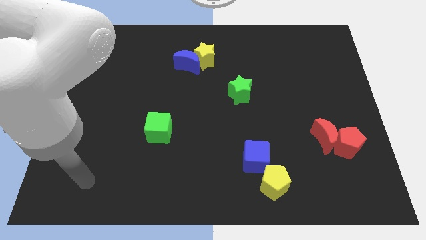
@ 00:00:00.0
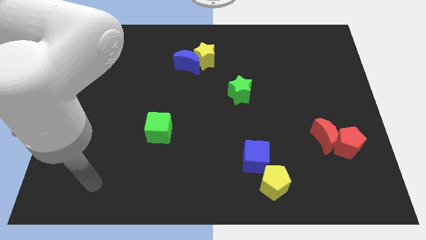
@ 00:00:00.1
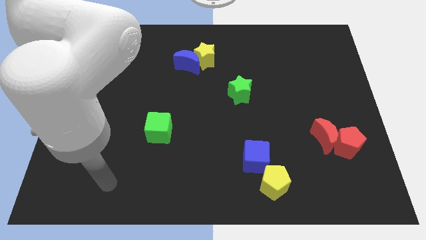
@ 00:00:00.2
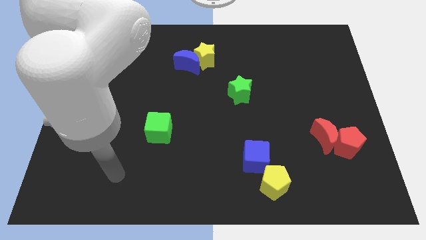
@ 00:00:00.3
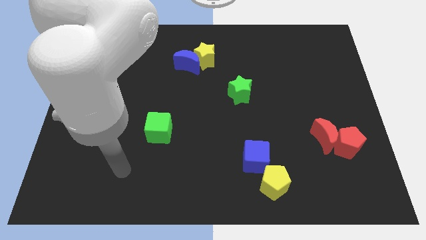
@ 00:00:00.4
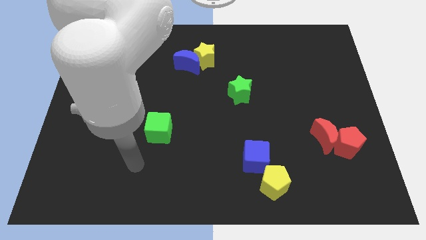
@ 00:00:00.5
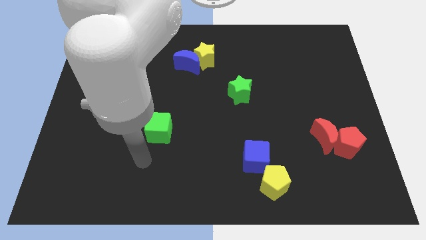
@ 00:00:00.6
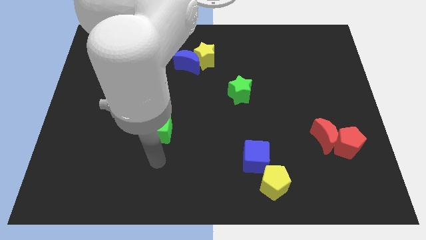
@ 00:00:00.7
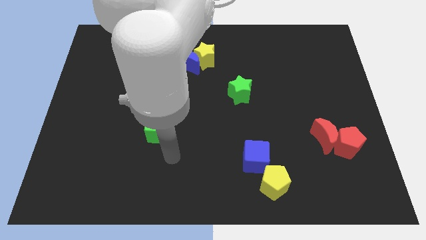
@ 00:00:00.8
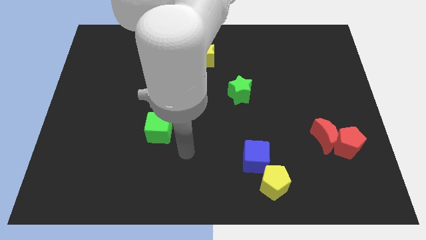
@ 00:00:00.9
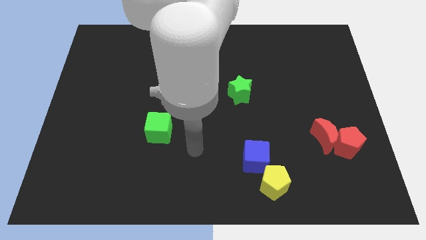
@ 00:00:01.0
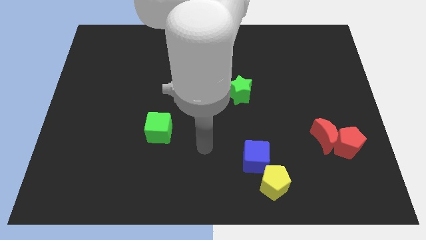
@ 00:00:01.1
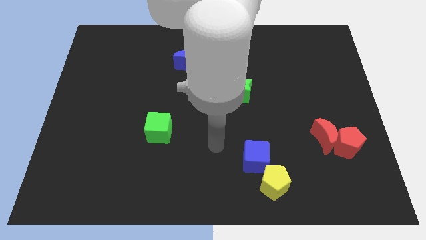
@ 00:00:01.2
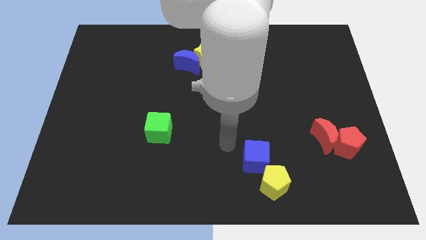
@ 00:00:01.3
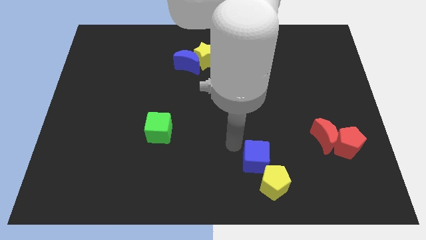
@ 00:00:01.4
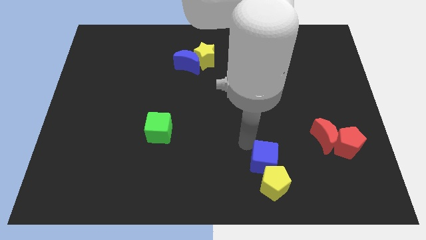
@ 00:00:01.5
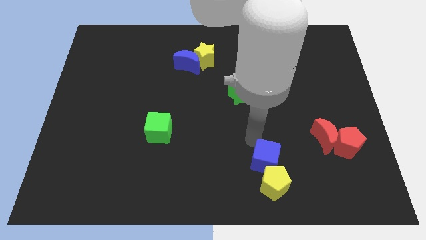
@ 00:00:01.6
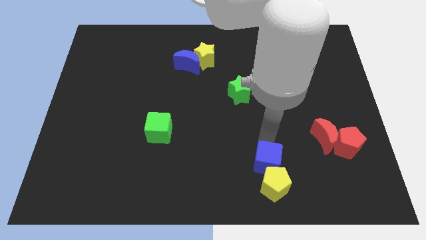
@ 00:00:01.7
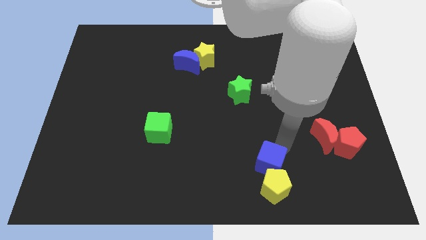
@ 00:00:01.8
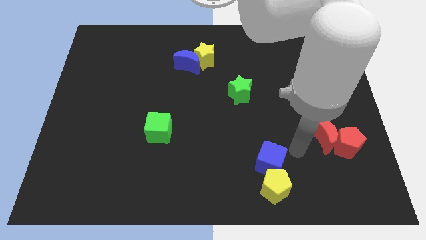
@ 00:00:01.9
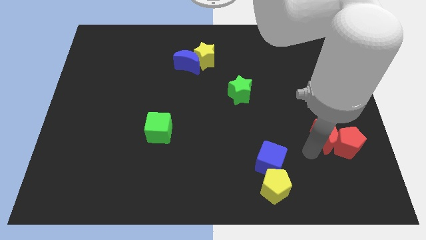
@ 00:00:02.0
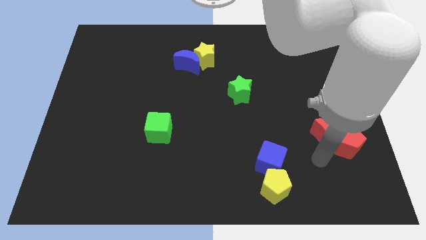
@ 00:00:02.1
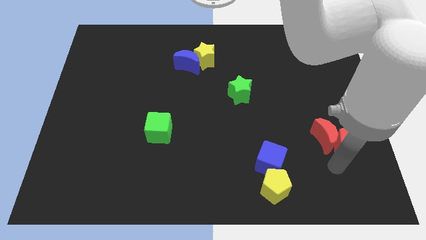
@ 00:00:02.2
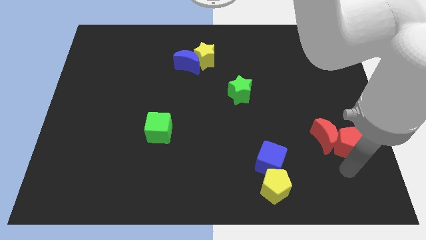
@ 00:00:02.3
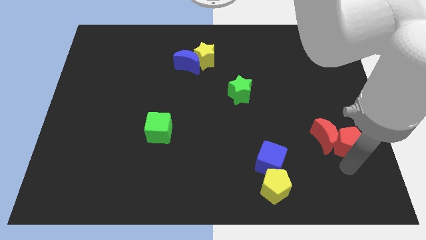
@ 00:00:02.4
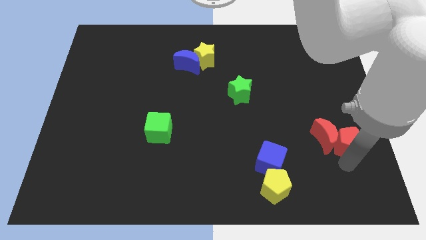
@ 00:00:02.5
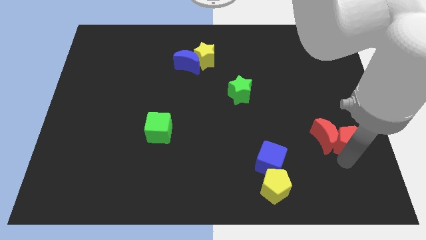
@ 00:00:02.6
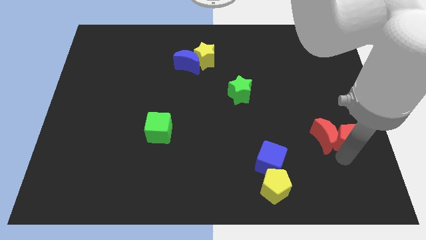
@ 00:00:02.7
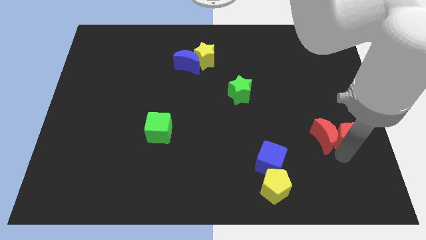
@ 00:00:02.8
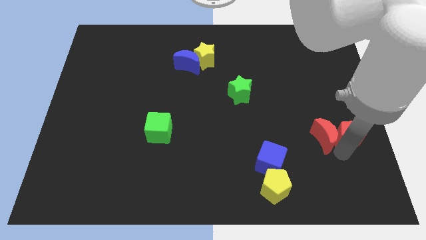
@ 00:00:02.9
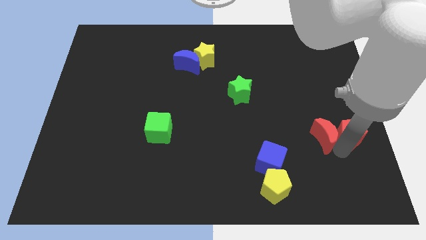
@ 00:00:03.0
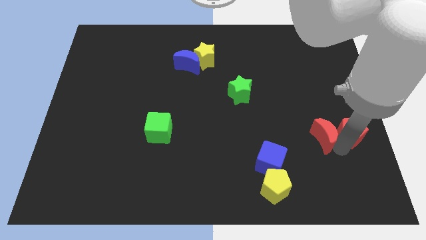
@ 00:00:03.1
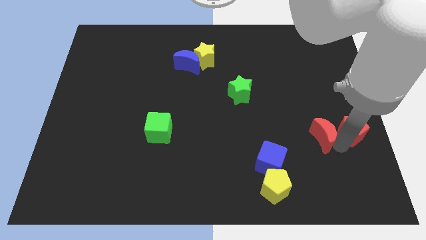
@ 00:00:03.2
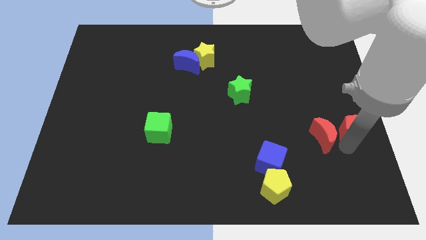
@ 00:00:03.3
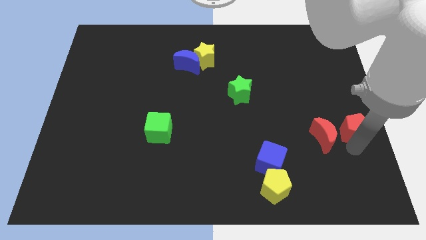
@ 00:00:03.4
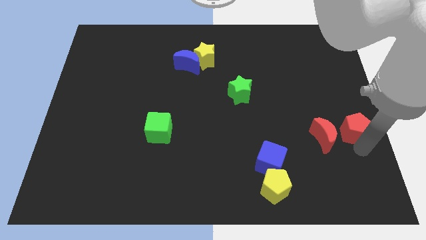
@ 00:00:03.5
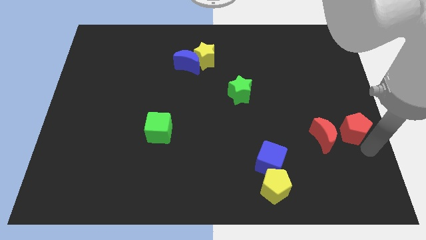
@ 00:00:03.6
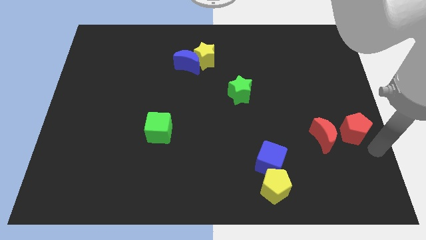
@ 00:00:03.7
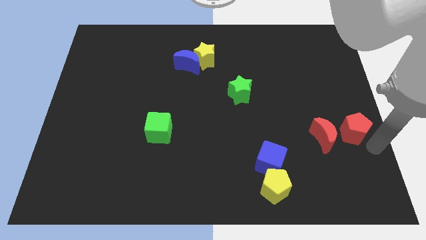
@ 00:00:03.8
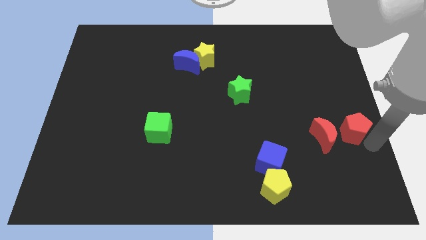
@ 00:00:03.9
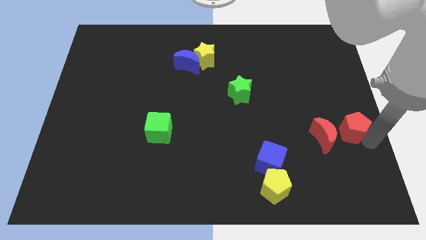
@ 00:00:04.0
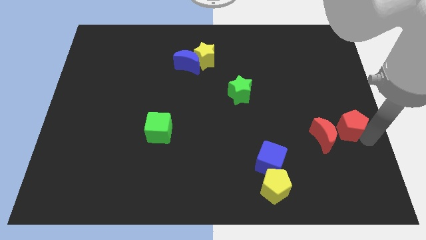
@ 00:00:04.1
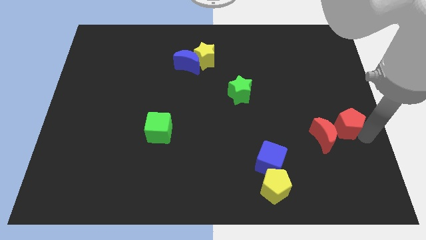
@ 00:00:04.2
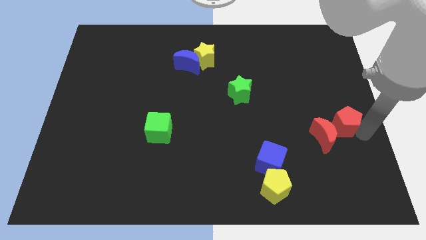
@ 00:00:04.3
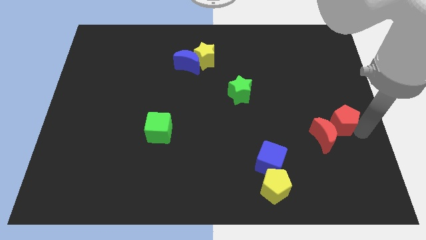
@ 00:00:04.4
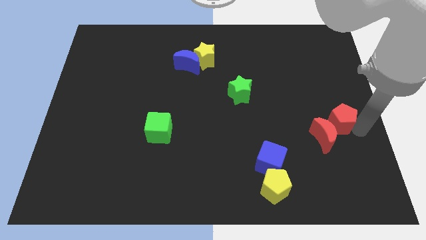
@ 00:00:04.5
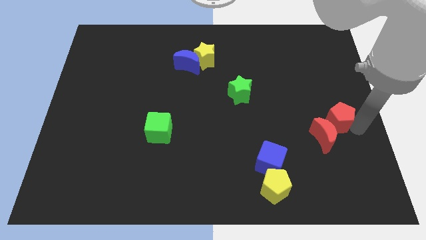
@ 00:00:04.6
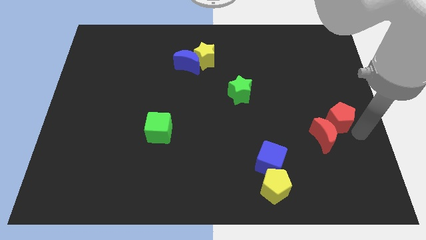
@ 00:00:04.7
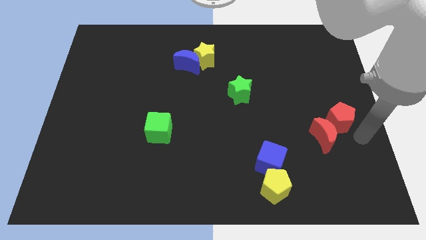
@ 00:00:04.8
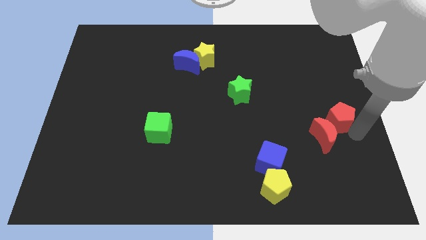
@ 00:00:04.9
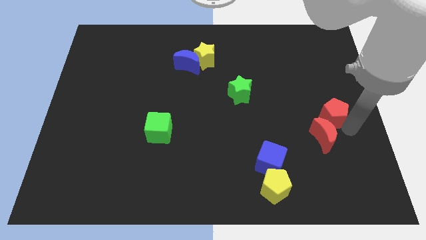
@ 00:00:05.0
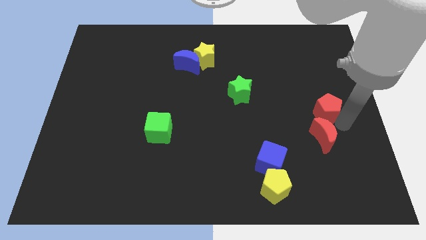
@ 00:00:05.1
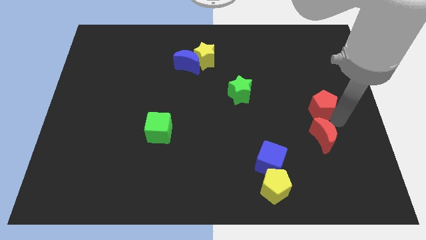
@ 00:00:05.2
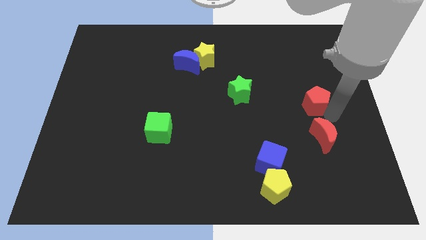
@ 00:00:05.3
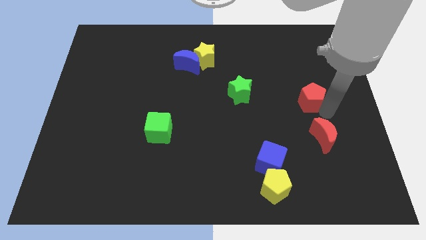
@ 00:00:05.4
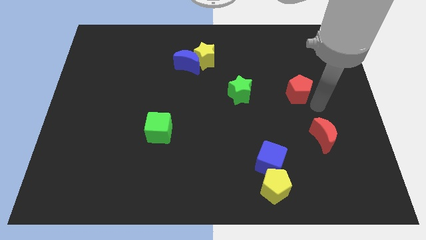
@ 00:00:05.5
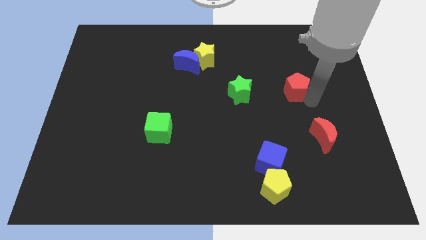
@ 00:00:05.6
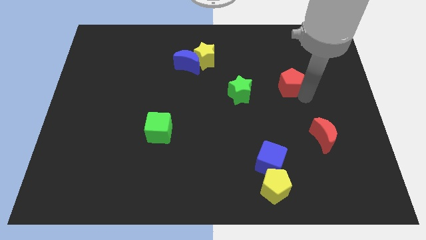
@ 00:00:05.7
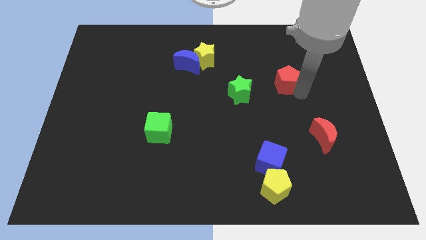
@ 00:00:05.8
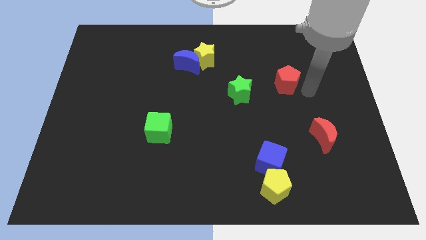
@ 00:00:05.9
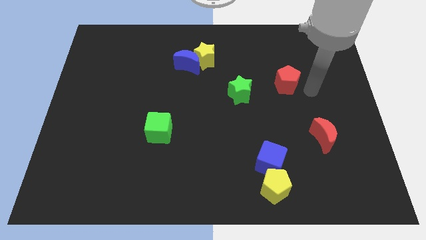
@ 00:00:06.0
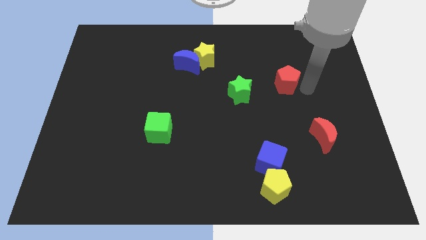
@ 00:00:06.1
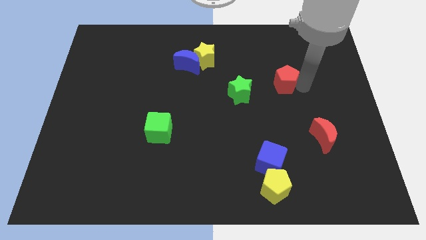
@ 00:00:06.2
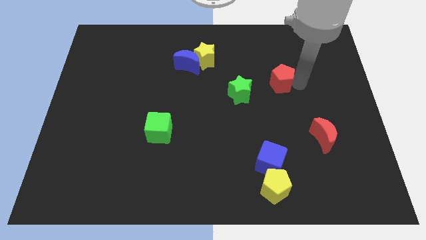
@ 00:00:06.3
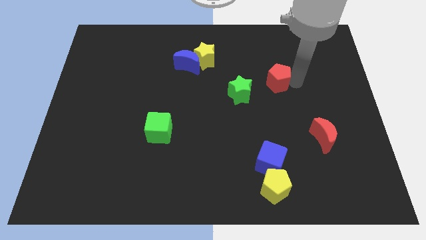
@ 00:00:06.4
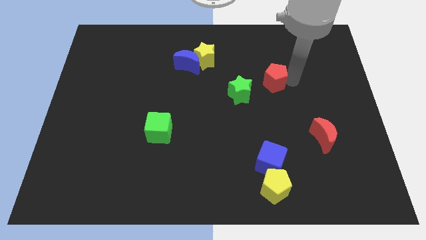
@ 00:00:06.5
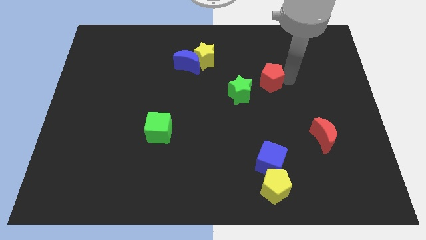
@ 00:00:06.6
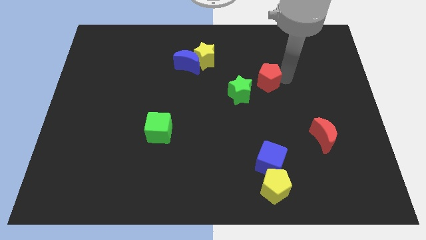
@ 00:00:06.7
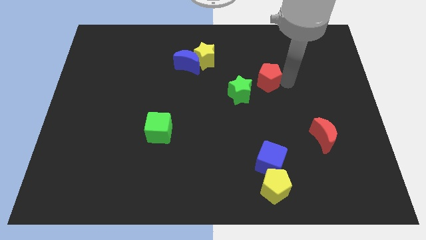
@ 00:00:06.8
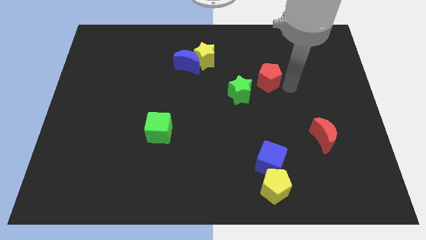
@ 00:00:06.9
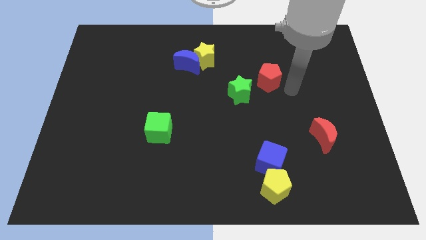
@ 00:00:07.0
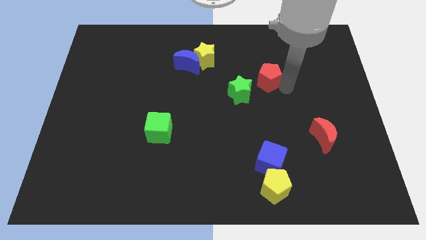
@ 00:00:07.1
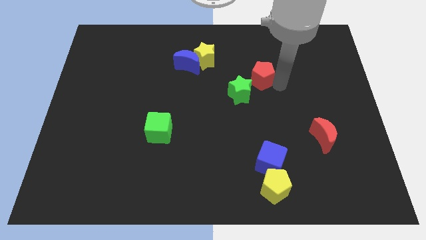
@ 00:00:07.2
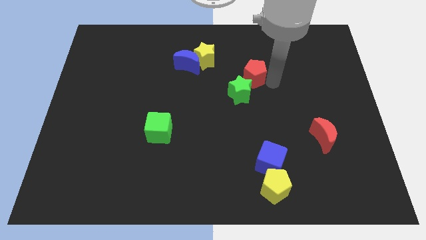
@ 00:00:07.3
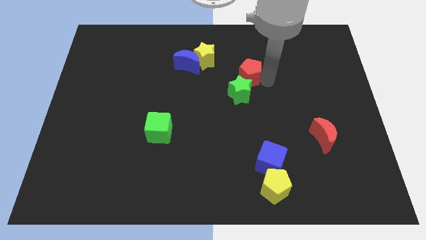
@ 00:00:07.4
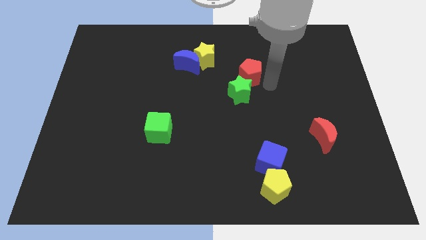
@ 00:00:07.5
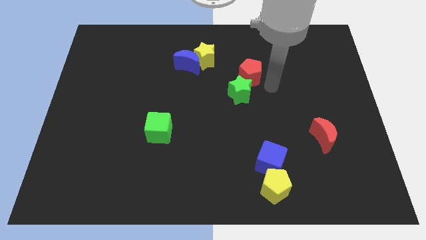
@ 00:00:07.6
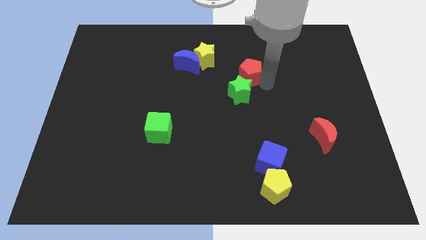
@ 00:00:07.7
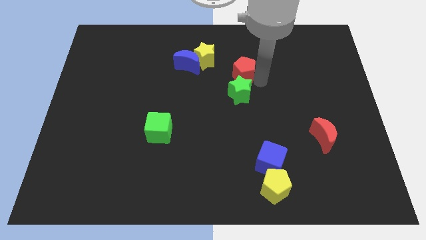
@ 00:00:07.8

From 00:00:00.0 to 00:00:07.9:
slide the red pentagon right of the blue moon
